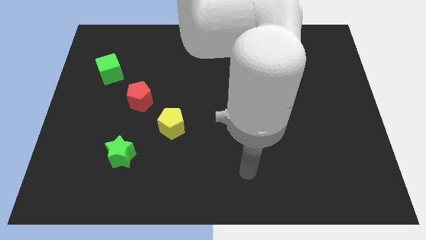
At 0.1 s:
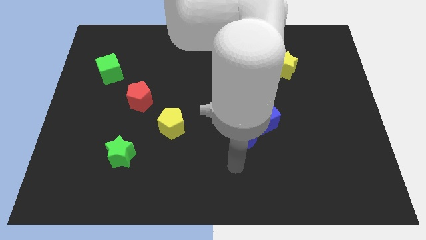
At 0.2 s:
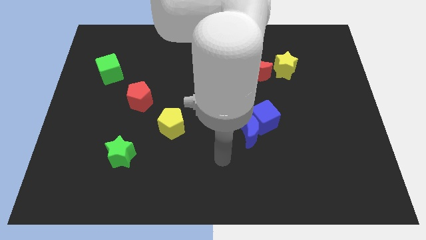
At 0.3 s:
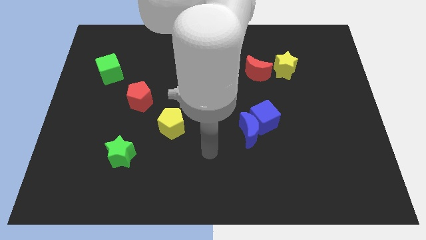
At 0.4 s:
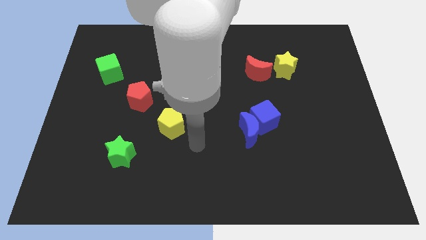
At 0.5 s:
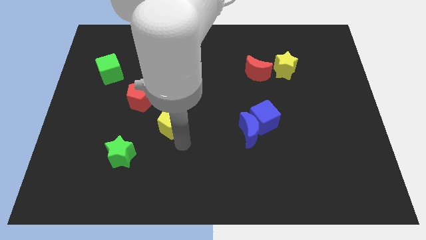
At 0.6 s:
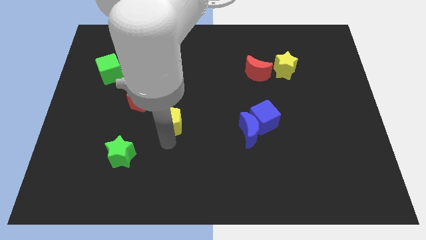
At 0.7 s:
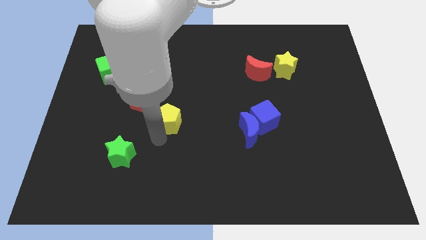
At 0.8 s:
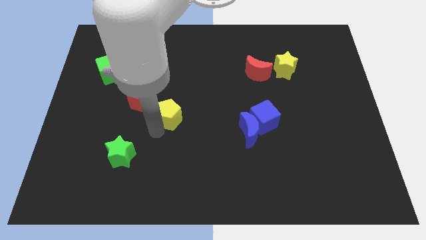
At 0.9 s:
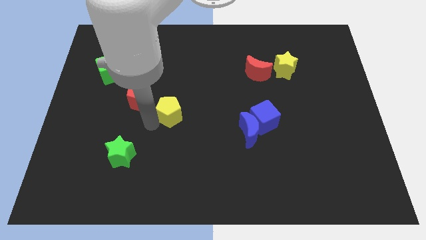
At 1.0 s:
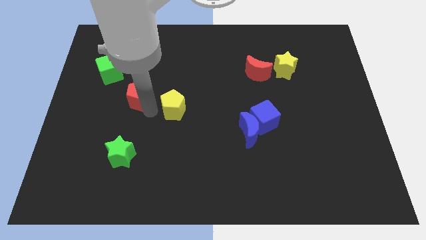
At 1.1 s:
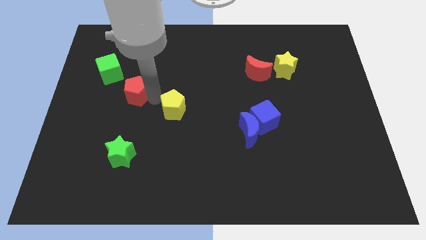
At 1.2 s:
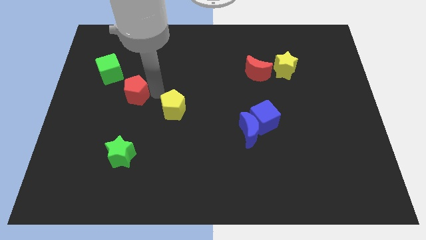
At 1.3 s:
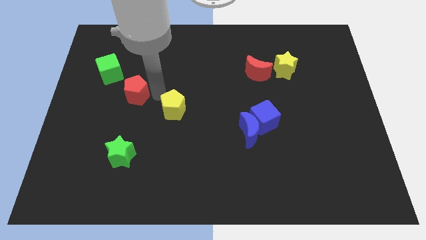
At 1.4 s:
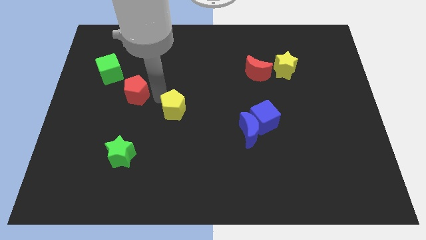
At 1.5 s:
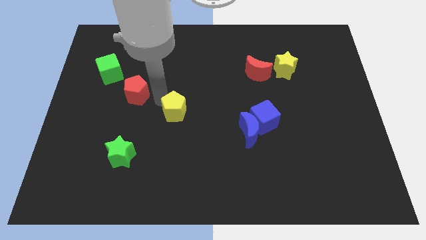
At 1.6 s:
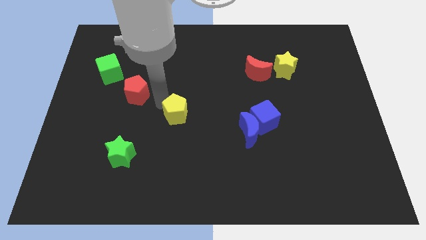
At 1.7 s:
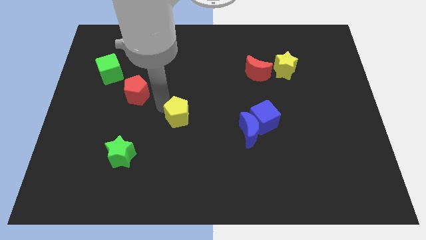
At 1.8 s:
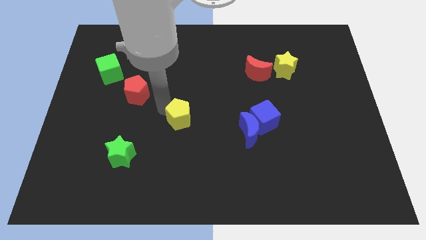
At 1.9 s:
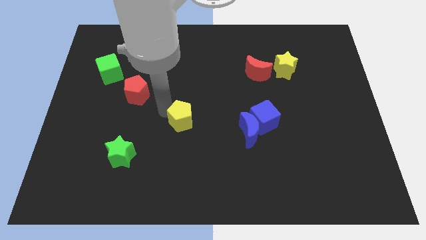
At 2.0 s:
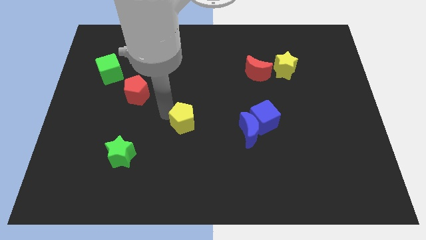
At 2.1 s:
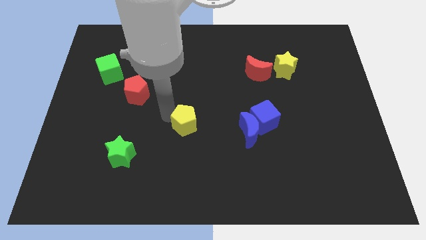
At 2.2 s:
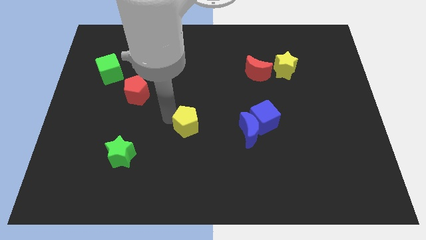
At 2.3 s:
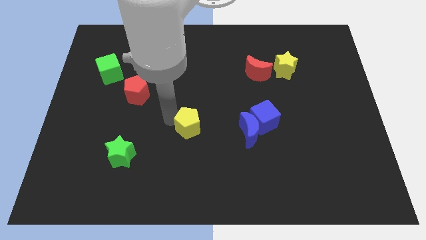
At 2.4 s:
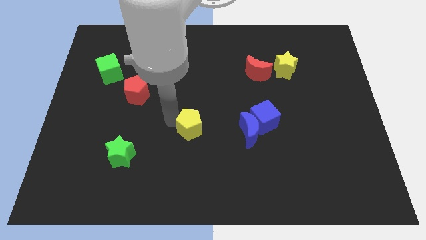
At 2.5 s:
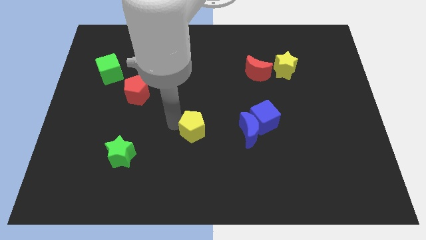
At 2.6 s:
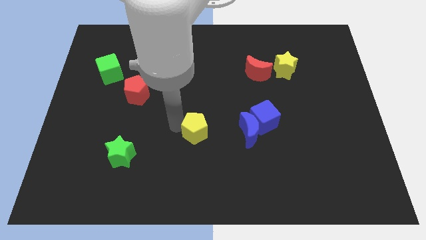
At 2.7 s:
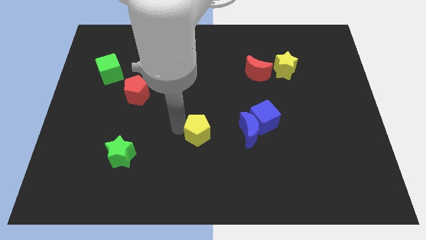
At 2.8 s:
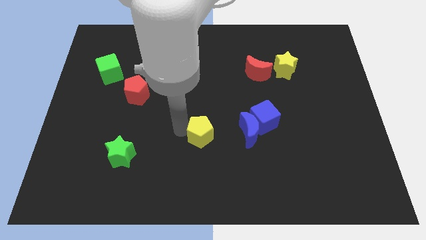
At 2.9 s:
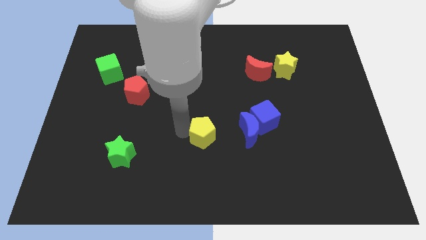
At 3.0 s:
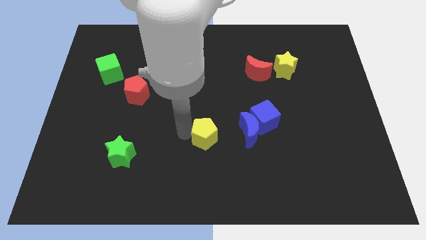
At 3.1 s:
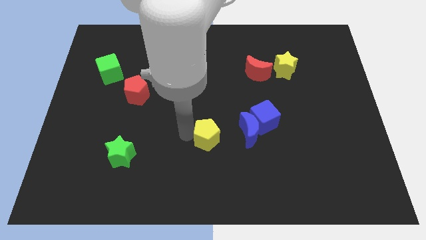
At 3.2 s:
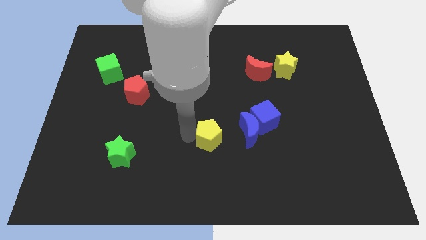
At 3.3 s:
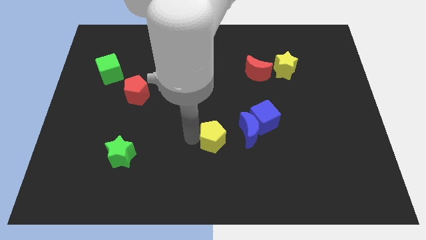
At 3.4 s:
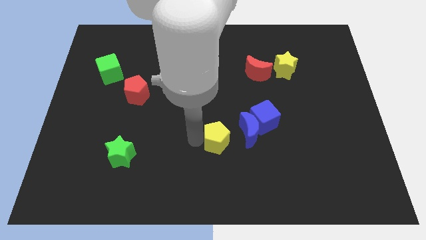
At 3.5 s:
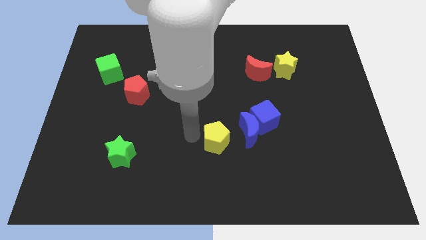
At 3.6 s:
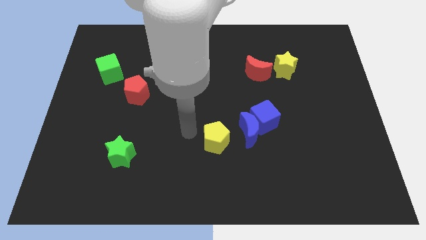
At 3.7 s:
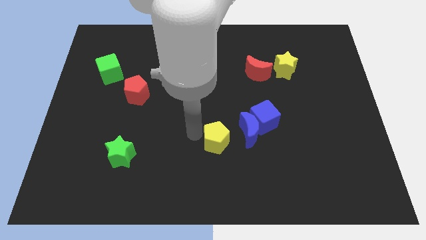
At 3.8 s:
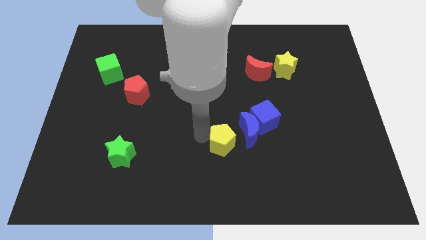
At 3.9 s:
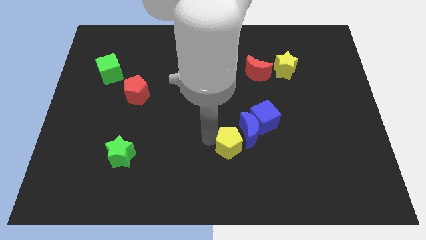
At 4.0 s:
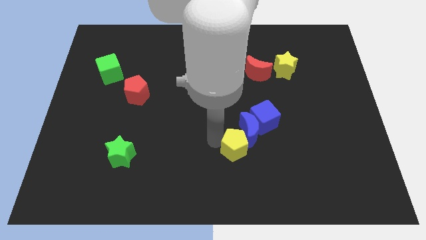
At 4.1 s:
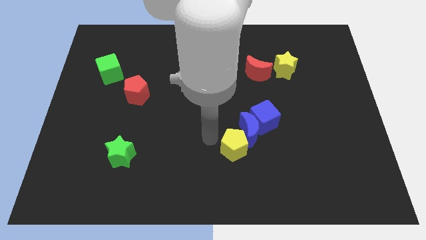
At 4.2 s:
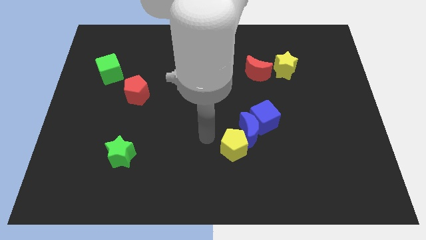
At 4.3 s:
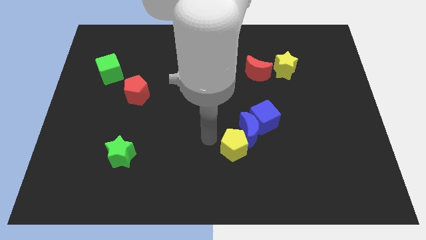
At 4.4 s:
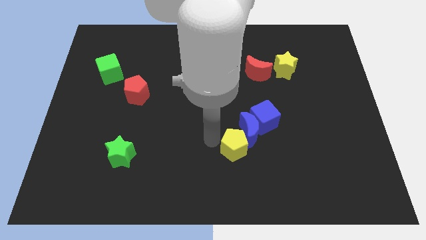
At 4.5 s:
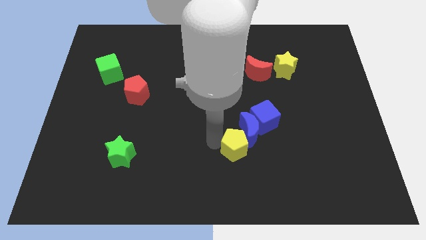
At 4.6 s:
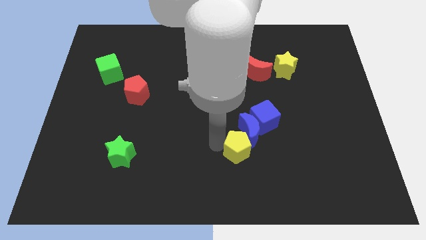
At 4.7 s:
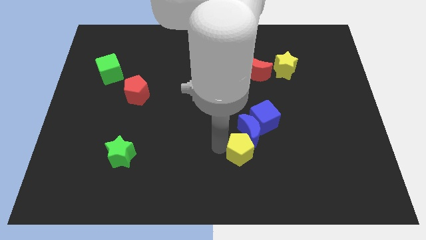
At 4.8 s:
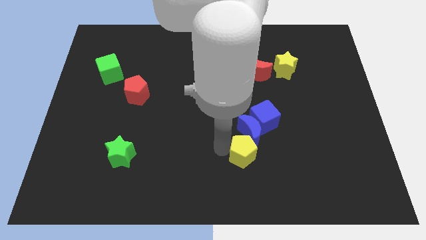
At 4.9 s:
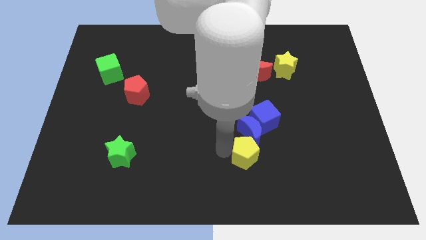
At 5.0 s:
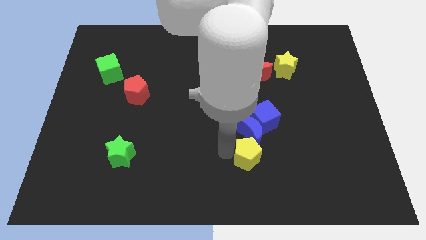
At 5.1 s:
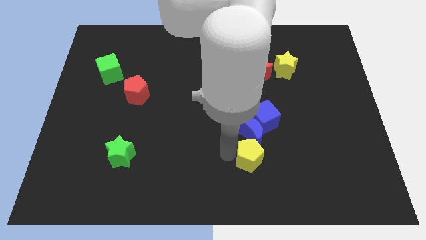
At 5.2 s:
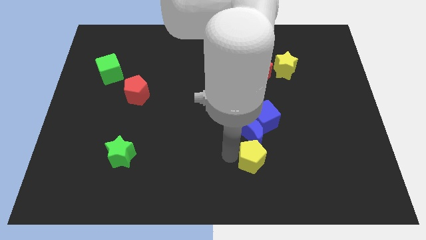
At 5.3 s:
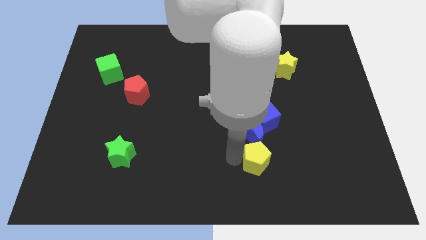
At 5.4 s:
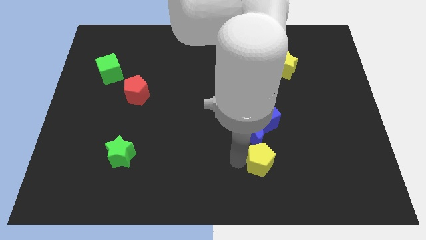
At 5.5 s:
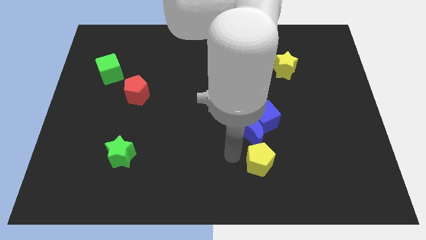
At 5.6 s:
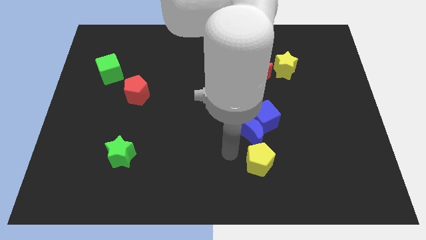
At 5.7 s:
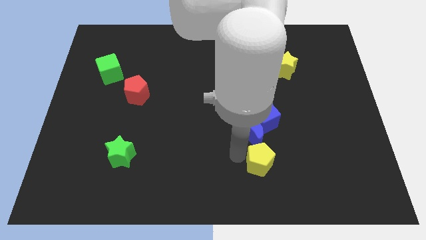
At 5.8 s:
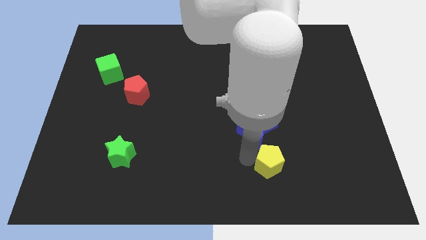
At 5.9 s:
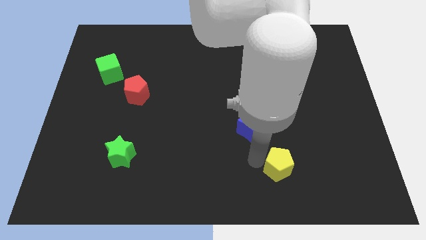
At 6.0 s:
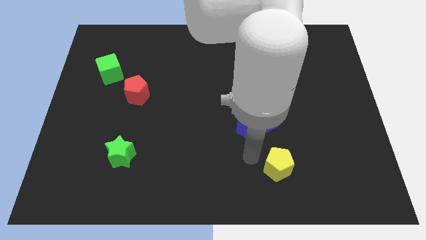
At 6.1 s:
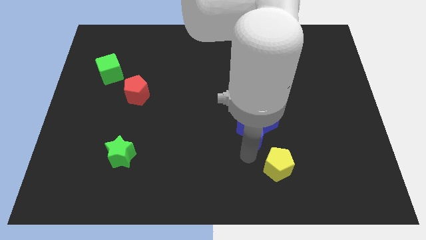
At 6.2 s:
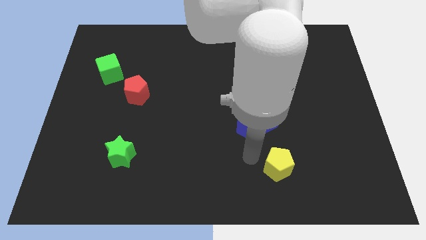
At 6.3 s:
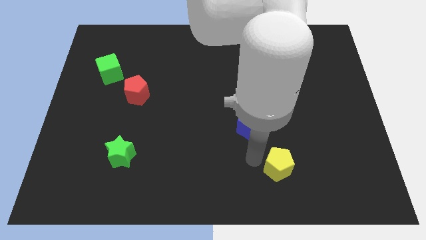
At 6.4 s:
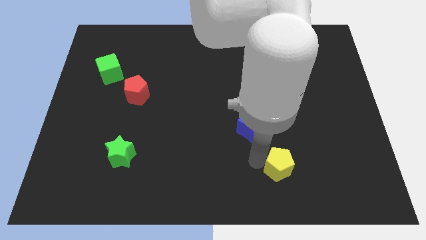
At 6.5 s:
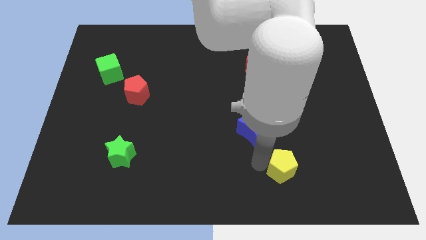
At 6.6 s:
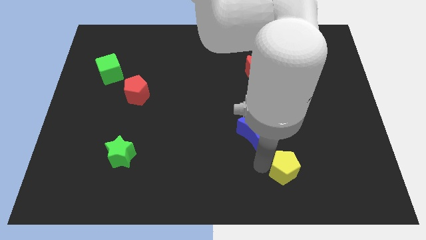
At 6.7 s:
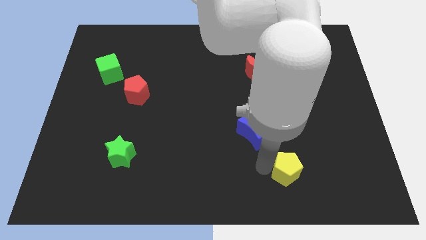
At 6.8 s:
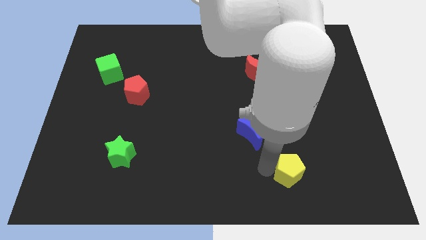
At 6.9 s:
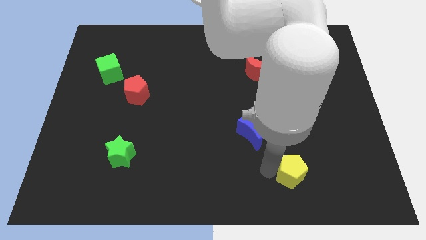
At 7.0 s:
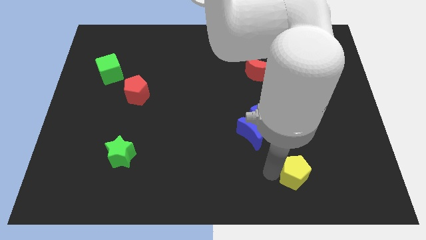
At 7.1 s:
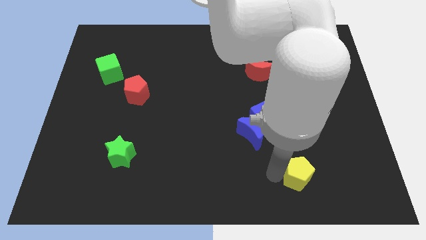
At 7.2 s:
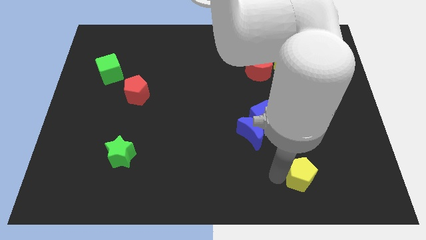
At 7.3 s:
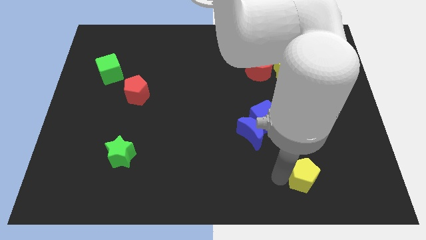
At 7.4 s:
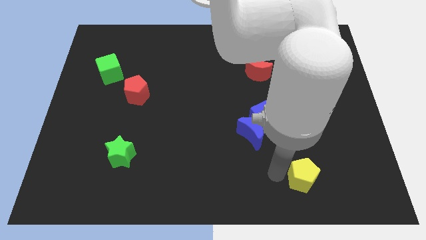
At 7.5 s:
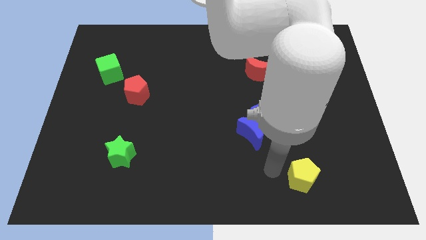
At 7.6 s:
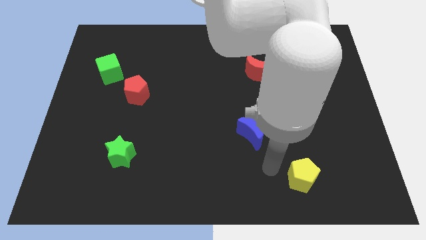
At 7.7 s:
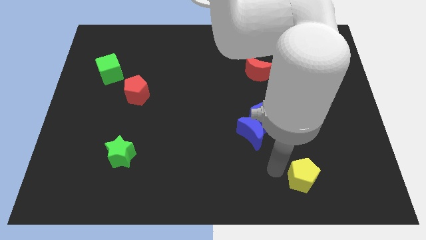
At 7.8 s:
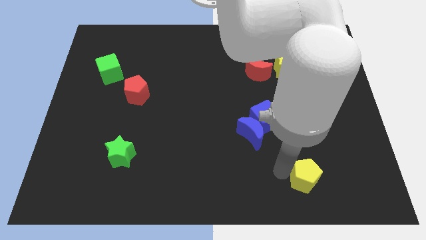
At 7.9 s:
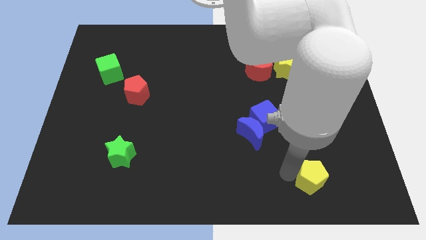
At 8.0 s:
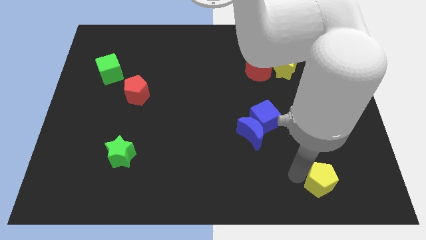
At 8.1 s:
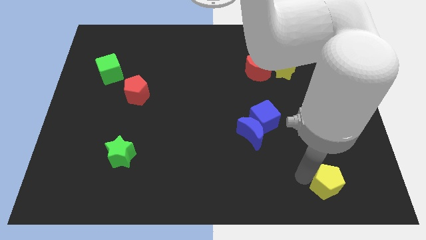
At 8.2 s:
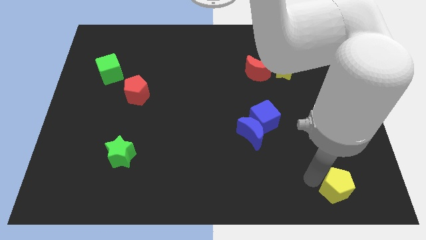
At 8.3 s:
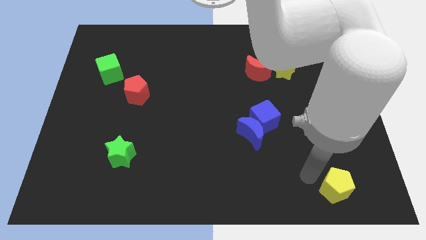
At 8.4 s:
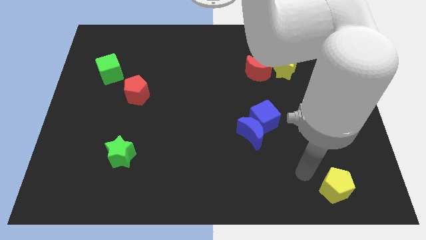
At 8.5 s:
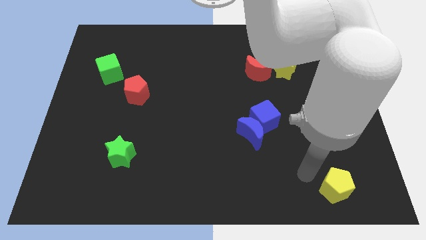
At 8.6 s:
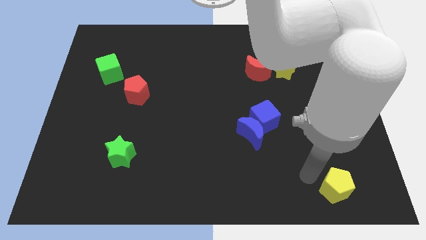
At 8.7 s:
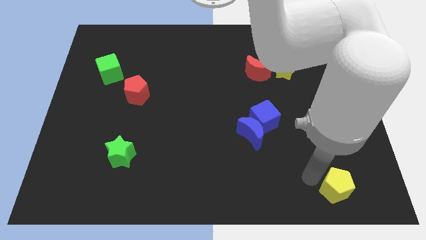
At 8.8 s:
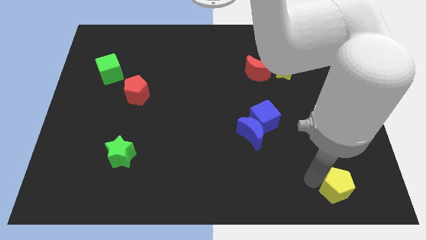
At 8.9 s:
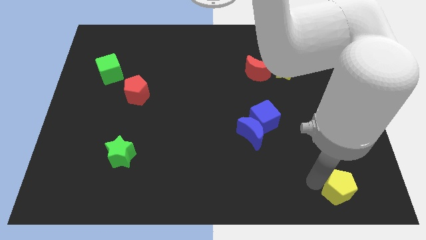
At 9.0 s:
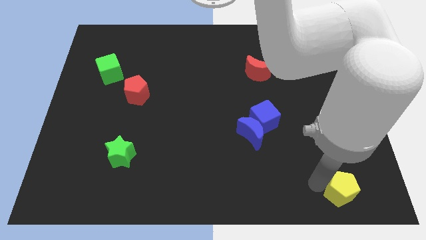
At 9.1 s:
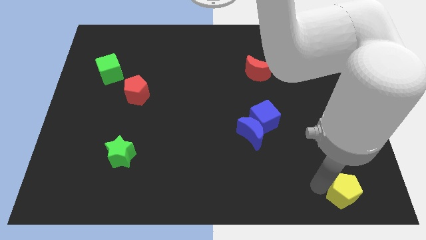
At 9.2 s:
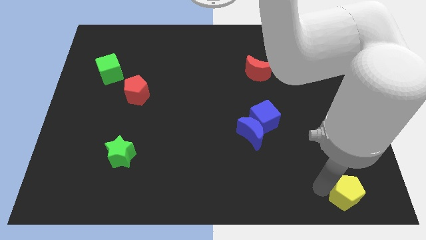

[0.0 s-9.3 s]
push the yellow pentagon to the lower right corner
